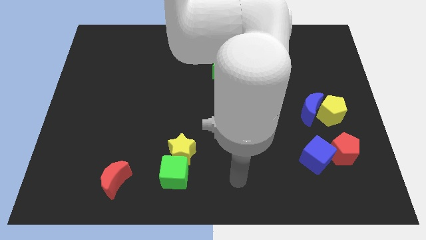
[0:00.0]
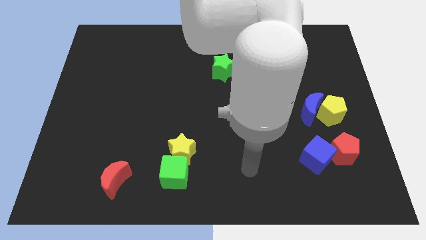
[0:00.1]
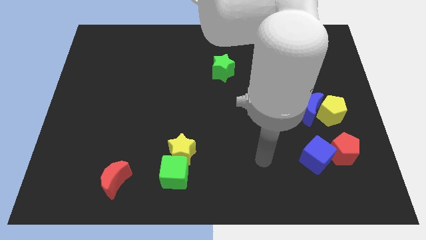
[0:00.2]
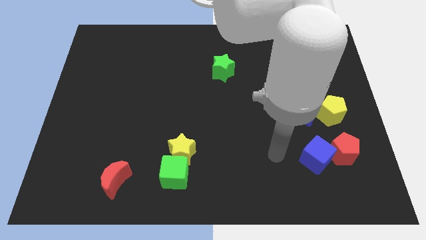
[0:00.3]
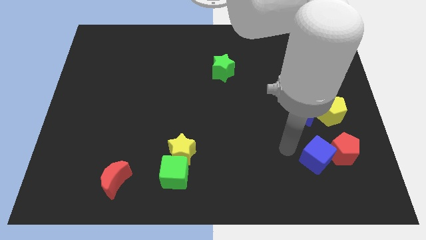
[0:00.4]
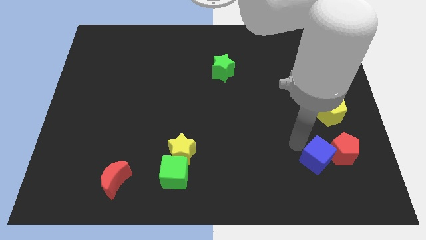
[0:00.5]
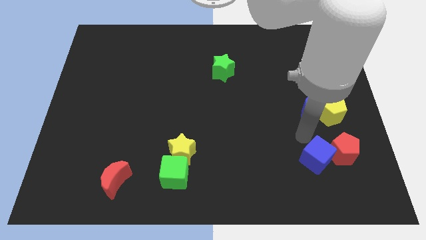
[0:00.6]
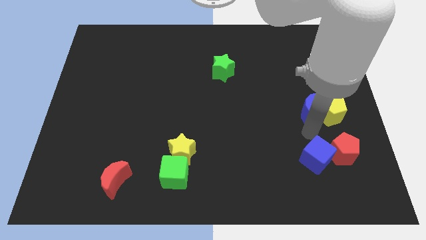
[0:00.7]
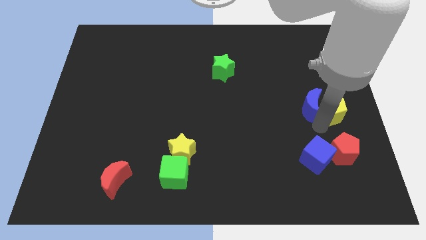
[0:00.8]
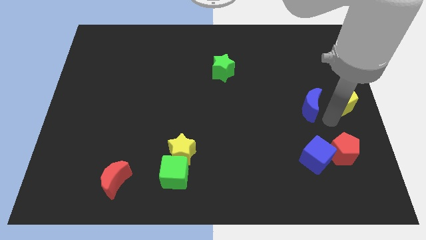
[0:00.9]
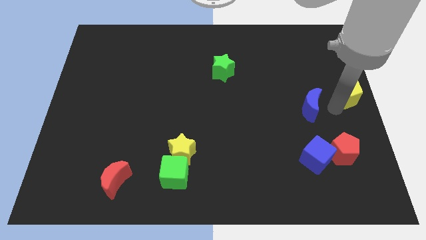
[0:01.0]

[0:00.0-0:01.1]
separate the blue moon from the yellow pentagon

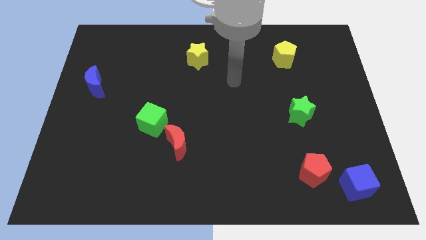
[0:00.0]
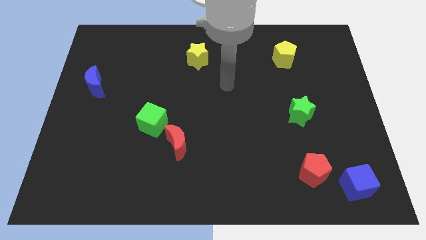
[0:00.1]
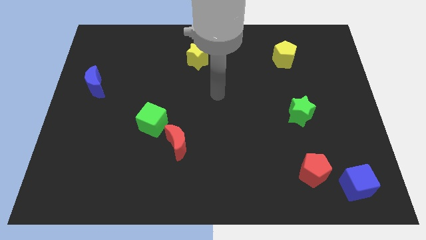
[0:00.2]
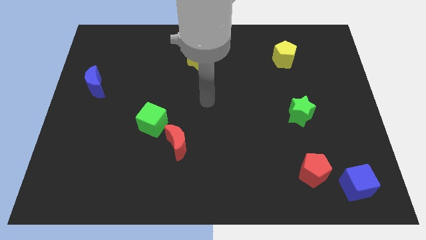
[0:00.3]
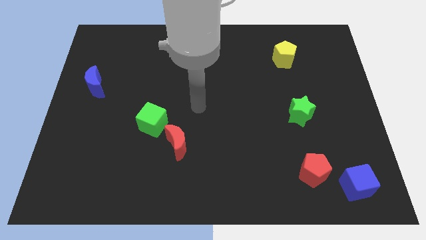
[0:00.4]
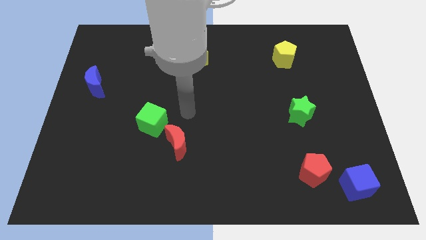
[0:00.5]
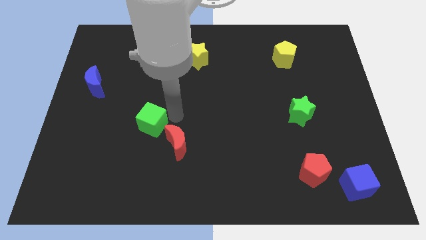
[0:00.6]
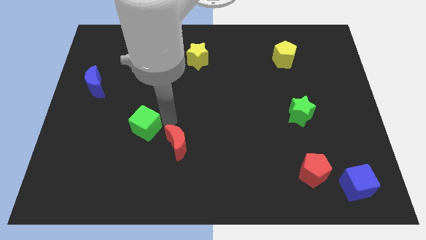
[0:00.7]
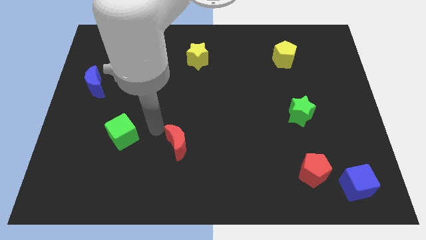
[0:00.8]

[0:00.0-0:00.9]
separate the red moon from the green cube

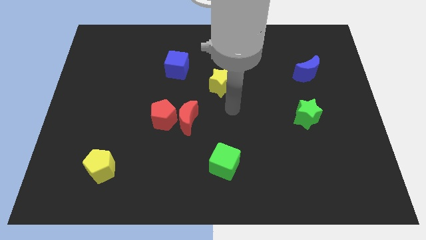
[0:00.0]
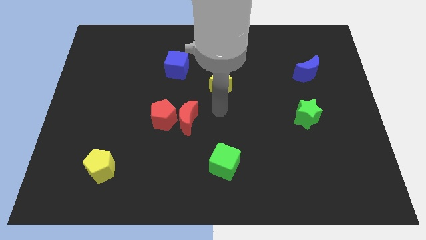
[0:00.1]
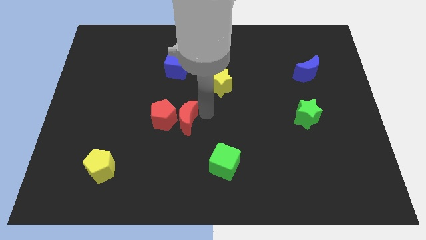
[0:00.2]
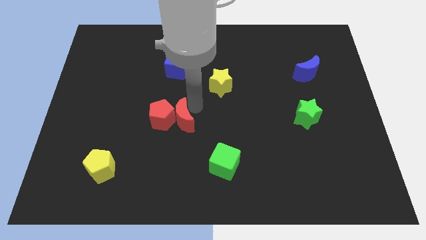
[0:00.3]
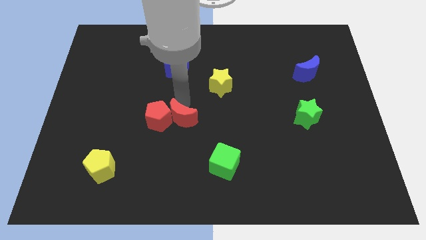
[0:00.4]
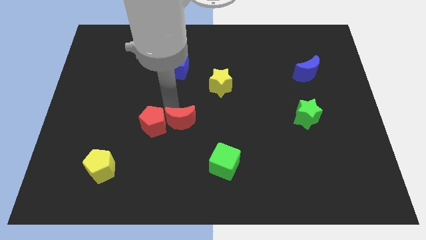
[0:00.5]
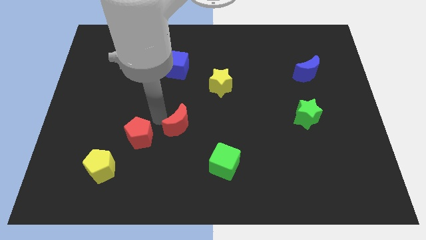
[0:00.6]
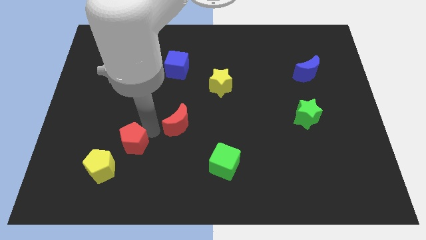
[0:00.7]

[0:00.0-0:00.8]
move the red moon away from the red pentagon

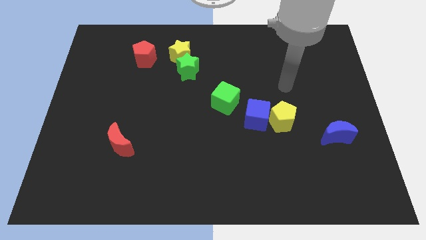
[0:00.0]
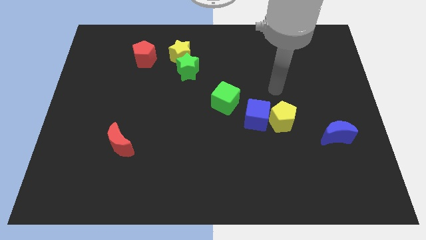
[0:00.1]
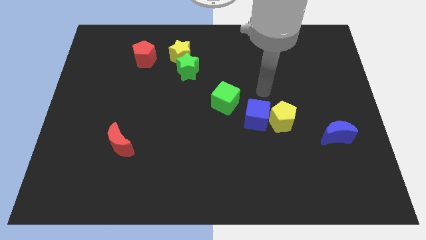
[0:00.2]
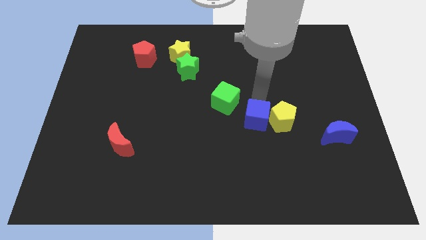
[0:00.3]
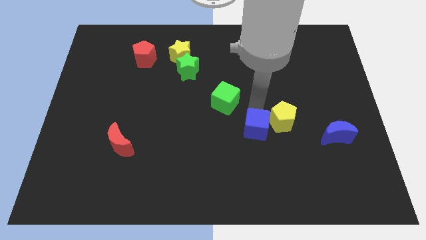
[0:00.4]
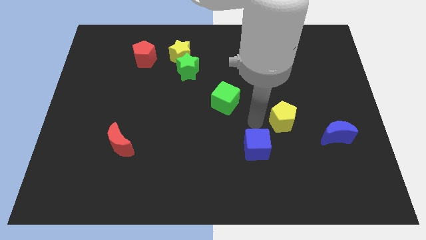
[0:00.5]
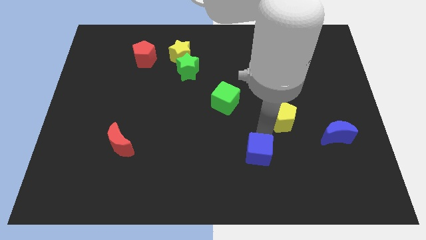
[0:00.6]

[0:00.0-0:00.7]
pull the yellow pentagon apart from the blue cube

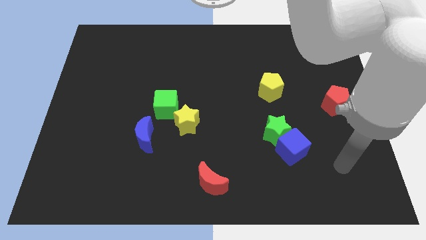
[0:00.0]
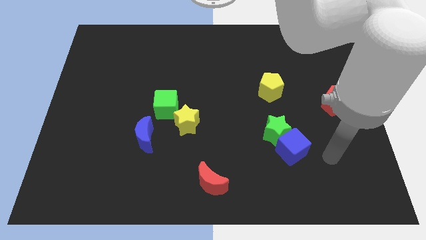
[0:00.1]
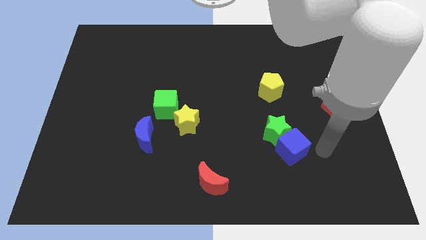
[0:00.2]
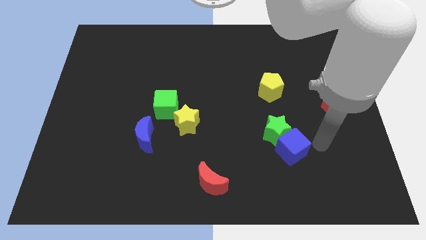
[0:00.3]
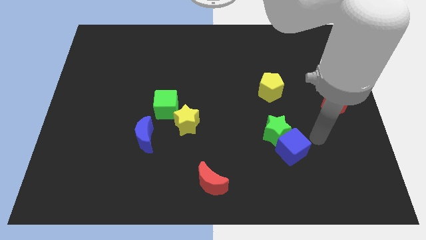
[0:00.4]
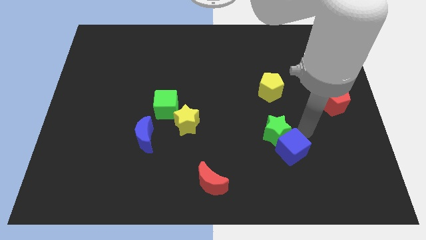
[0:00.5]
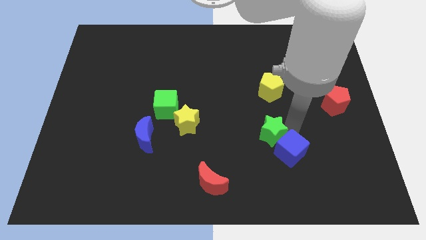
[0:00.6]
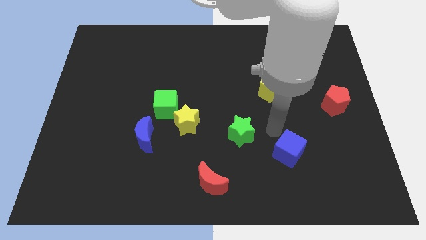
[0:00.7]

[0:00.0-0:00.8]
separate the blue cube from the green star

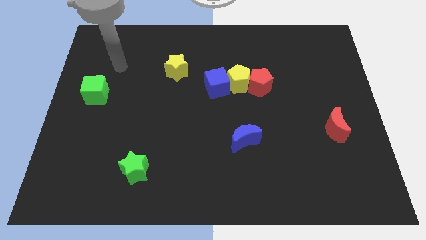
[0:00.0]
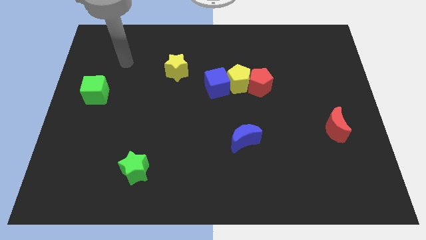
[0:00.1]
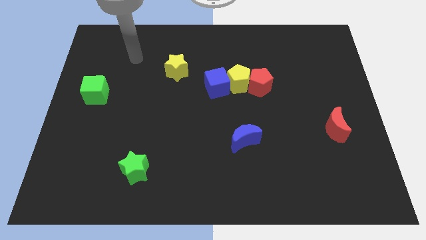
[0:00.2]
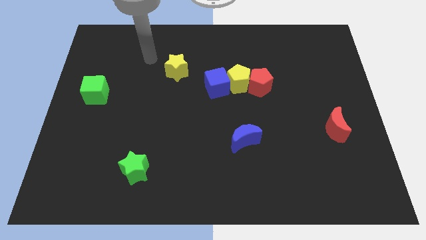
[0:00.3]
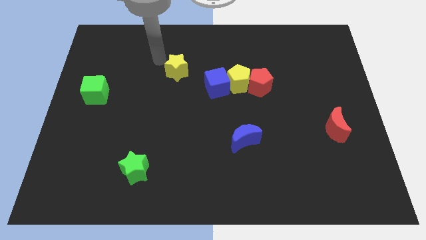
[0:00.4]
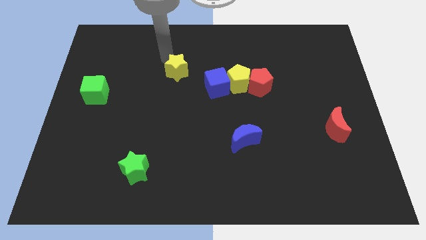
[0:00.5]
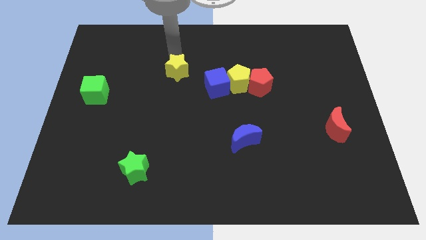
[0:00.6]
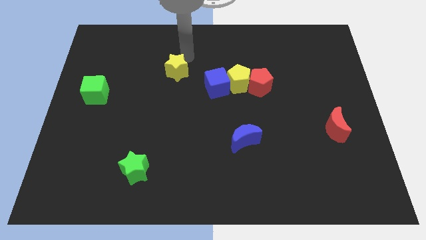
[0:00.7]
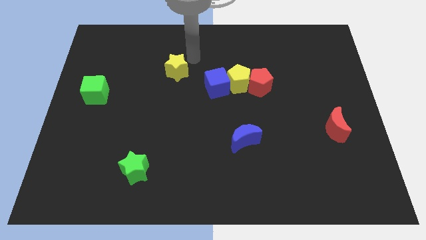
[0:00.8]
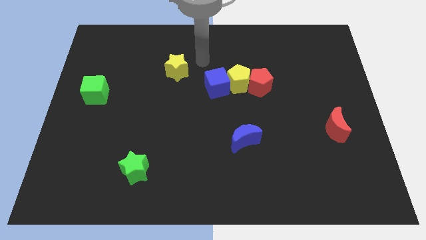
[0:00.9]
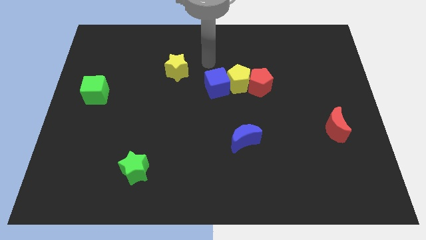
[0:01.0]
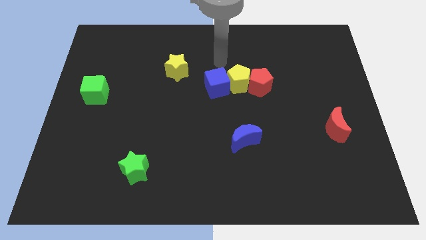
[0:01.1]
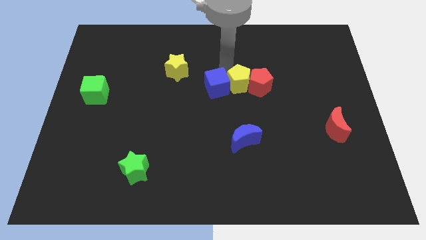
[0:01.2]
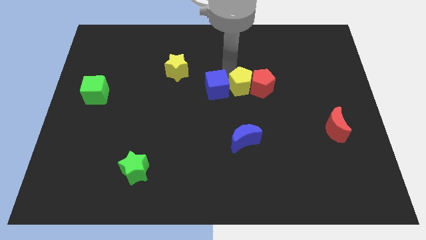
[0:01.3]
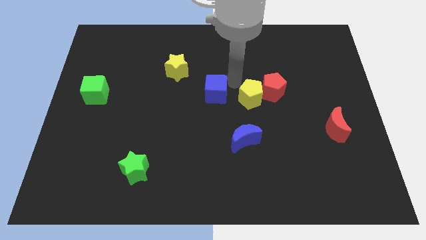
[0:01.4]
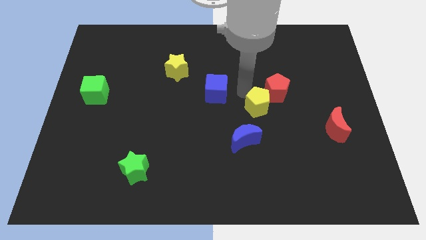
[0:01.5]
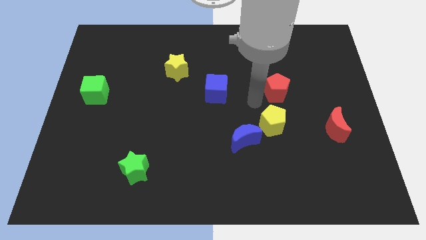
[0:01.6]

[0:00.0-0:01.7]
separate the red pentagon from the yellow pentagon

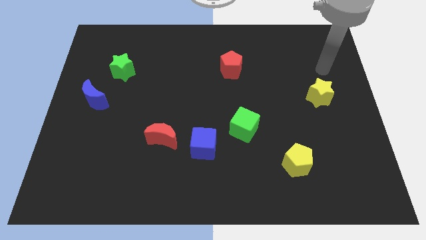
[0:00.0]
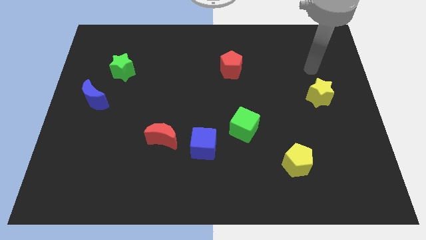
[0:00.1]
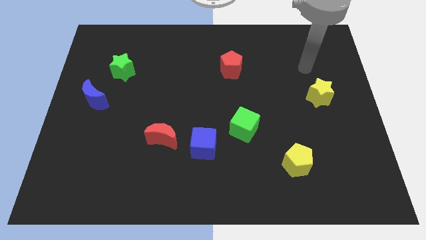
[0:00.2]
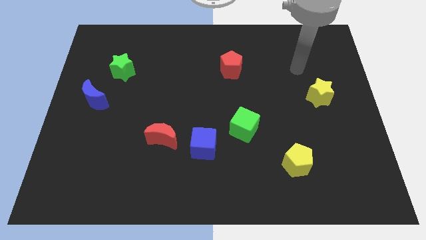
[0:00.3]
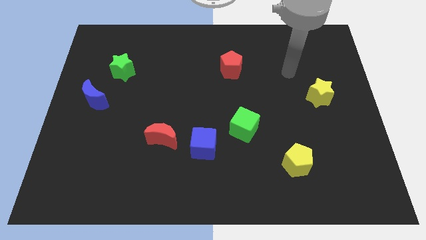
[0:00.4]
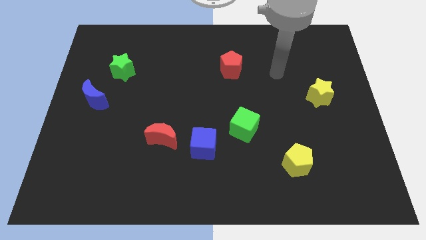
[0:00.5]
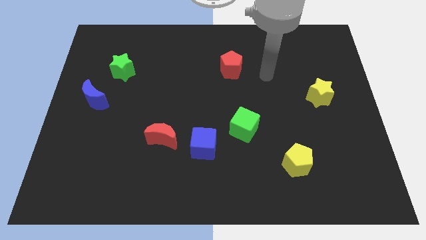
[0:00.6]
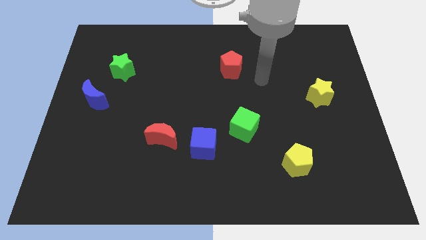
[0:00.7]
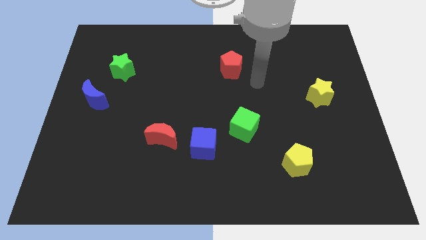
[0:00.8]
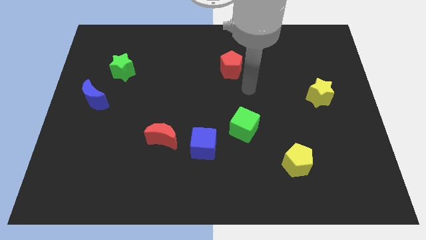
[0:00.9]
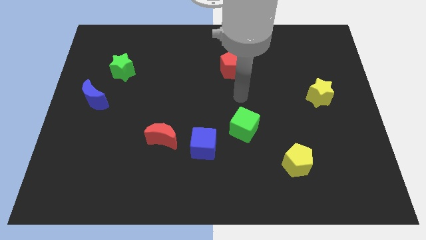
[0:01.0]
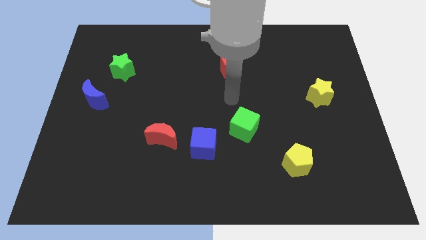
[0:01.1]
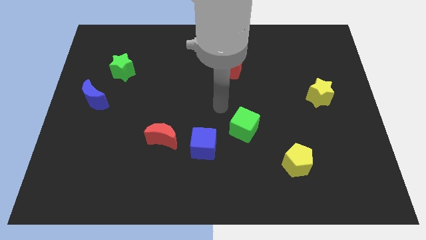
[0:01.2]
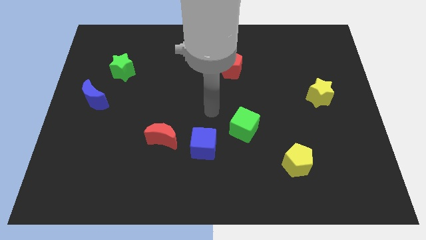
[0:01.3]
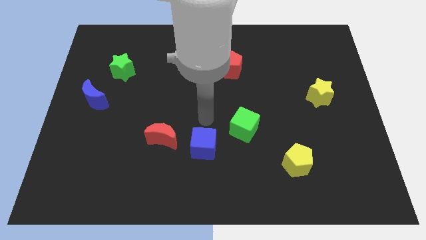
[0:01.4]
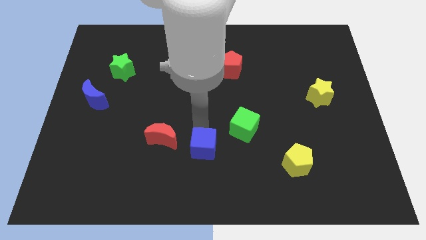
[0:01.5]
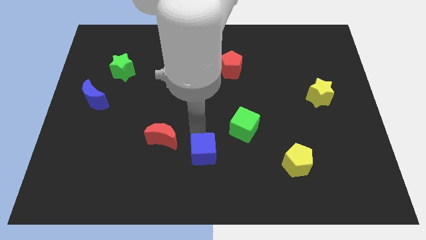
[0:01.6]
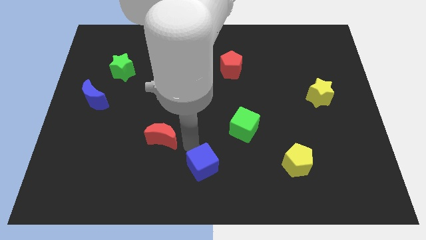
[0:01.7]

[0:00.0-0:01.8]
pull the red moon apart from the blue cube

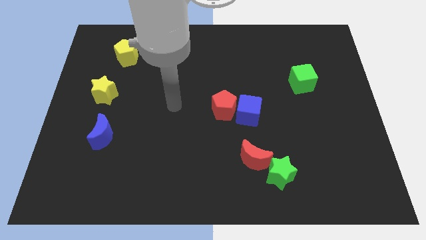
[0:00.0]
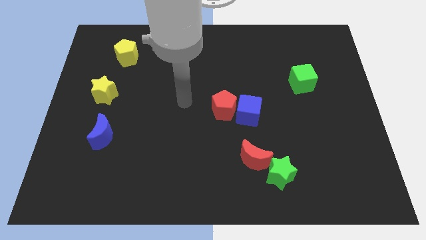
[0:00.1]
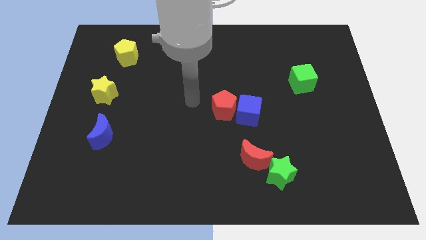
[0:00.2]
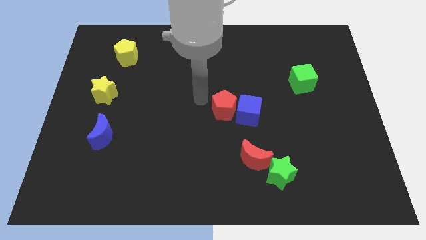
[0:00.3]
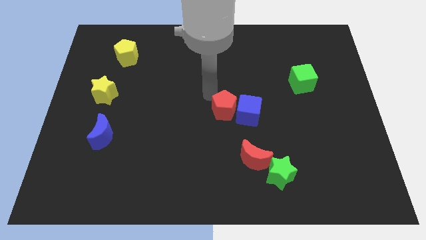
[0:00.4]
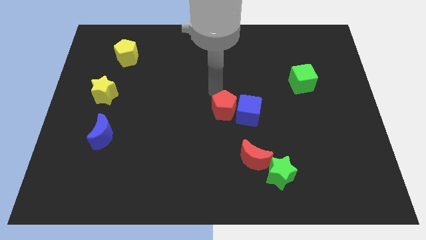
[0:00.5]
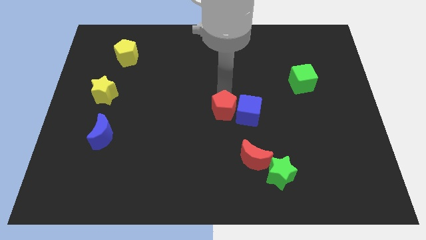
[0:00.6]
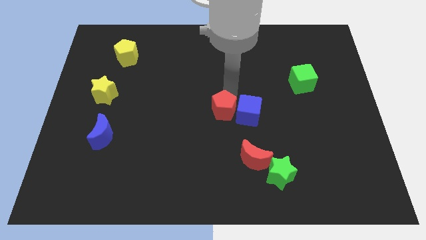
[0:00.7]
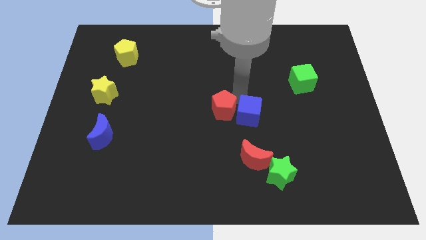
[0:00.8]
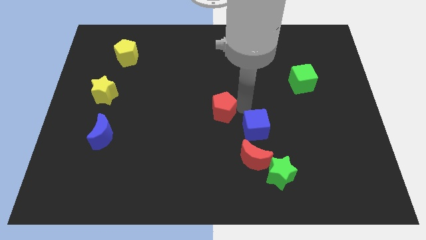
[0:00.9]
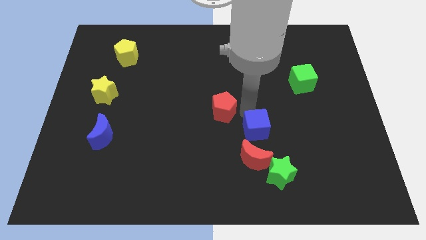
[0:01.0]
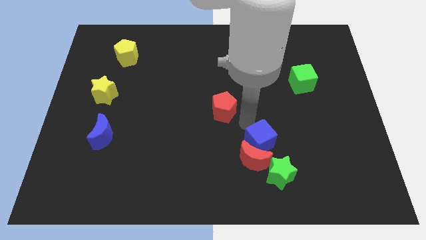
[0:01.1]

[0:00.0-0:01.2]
move the red pentagon away from the blue cube

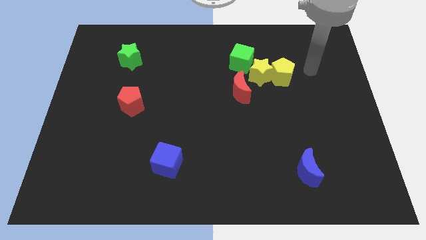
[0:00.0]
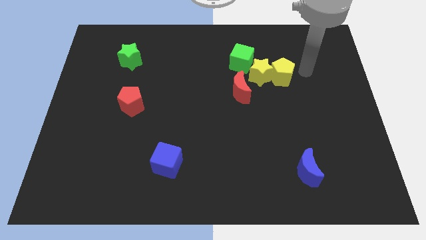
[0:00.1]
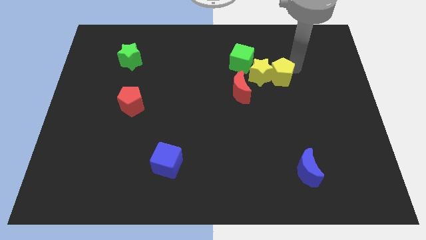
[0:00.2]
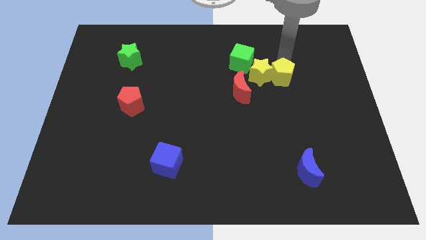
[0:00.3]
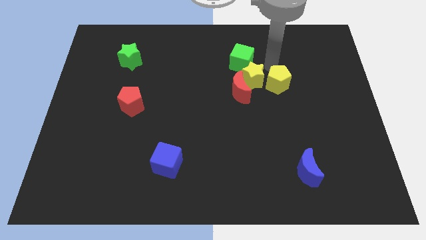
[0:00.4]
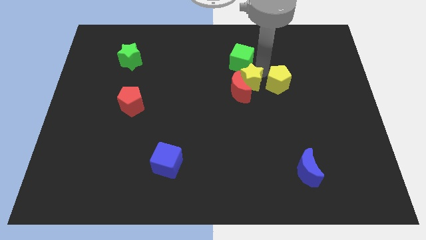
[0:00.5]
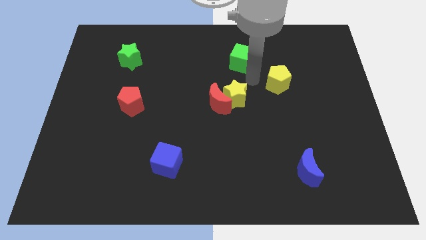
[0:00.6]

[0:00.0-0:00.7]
pull the yellow pentagon apart from the yellow star
